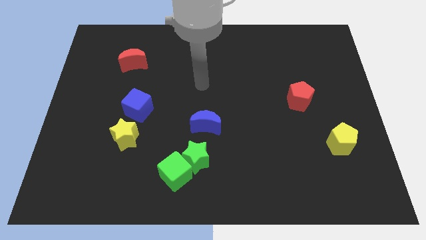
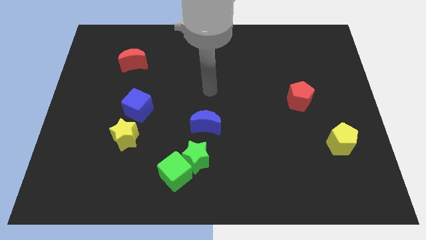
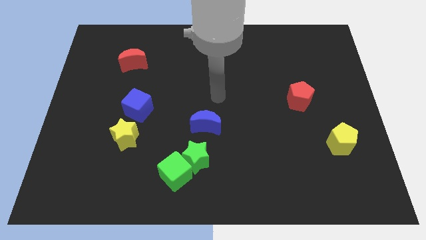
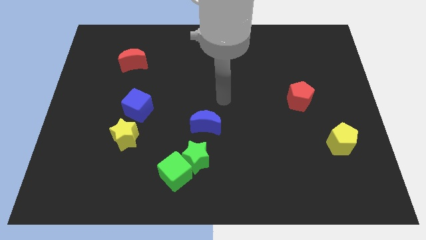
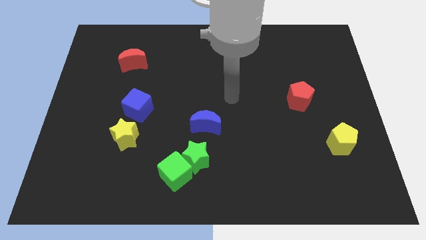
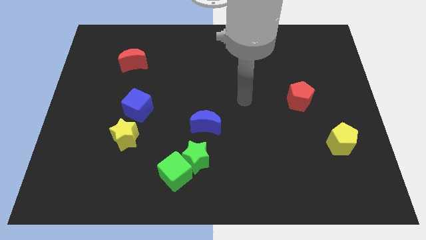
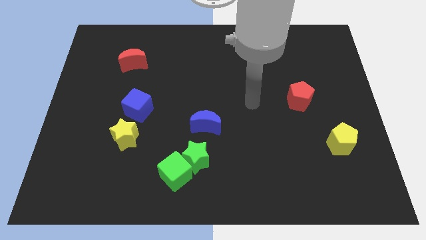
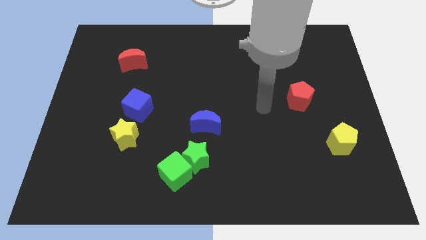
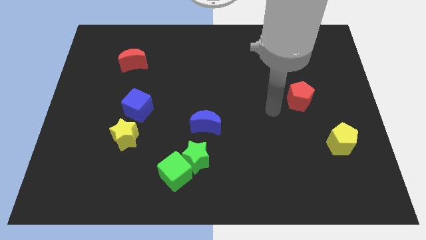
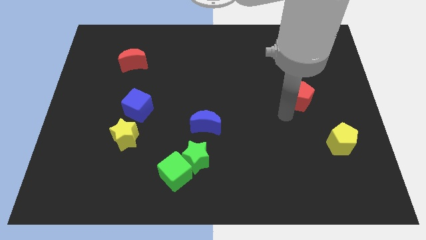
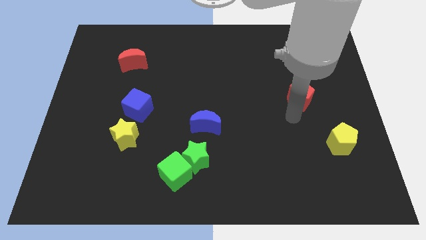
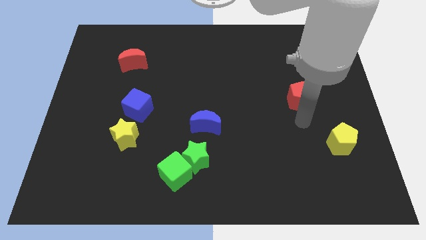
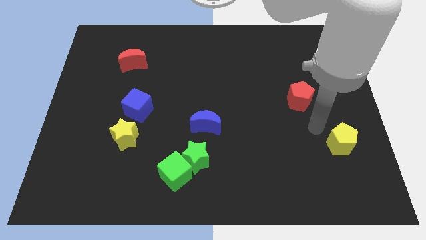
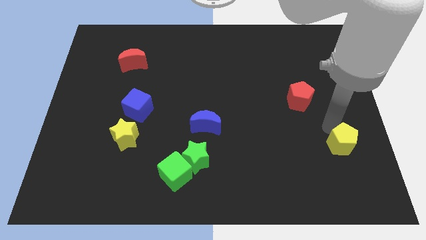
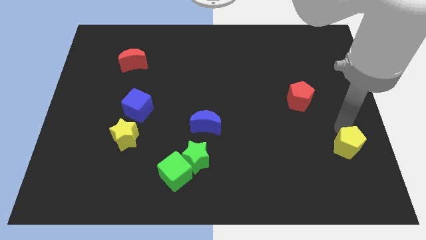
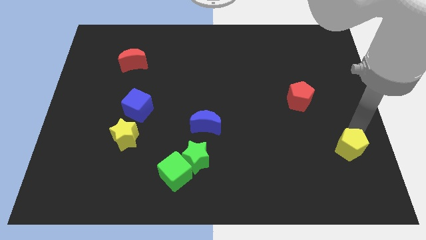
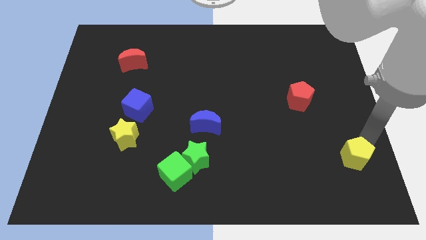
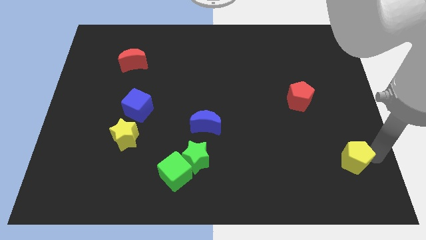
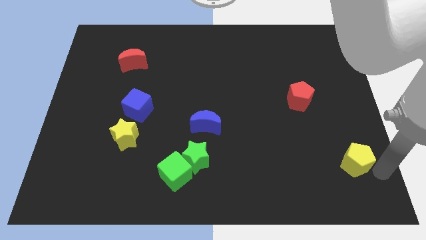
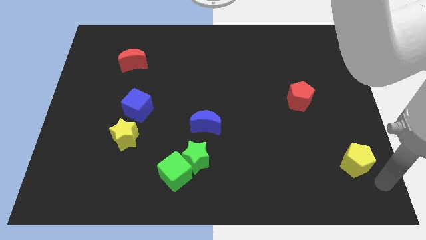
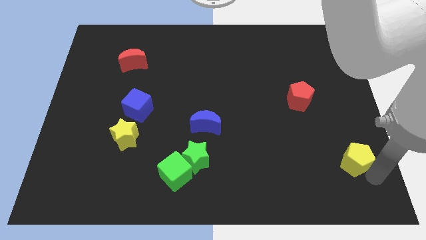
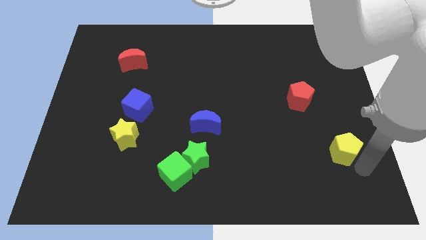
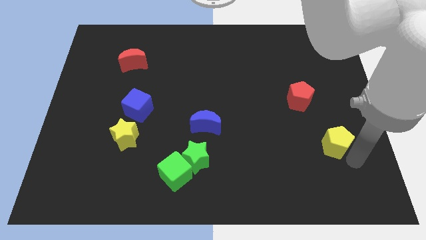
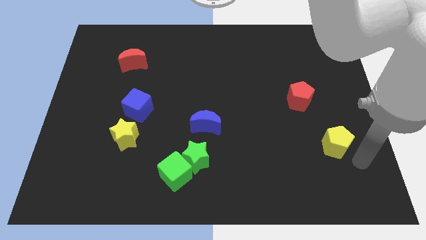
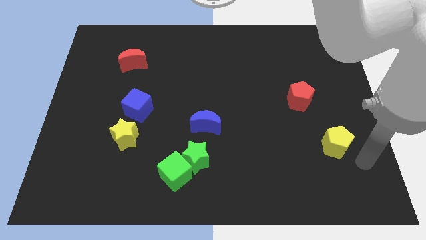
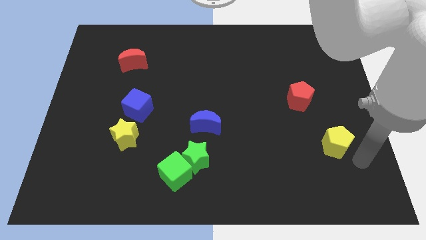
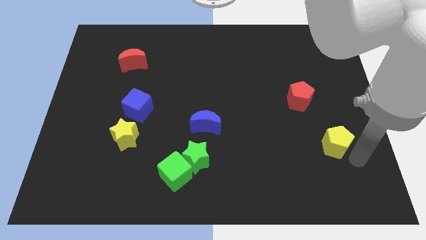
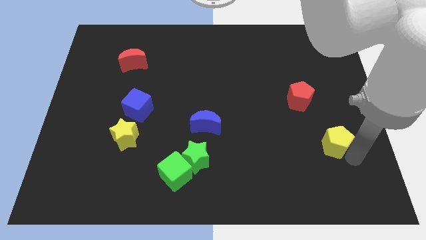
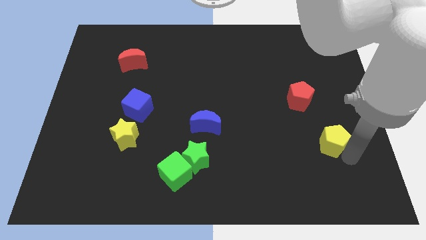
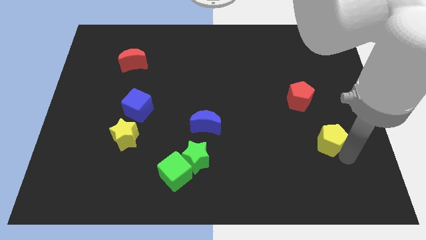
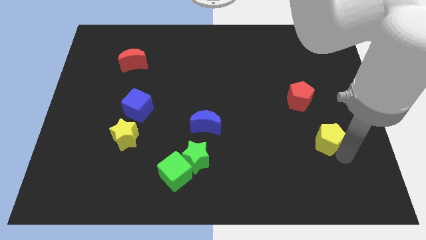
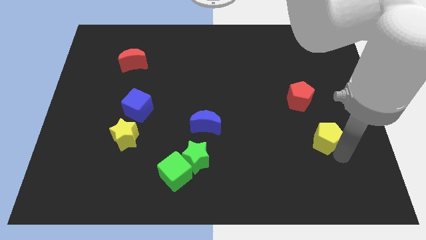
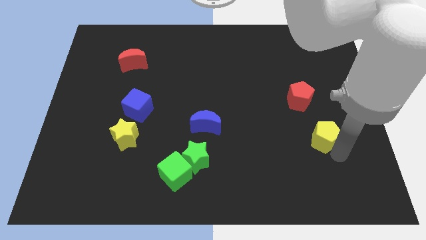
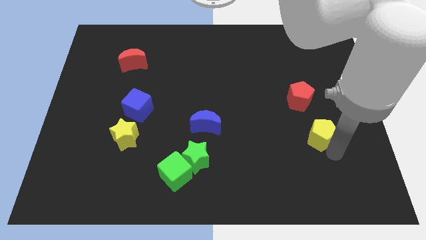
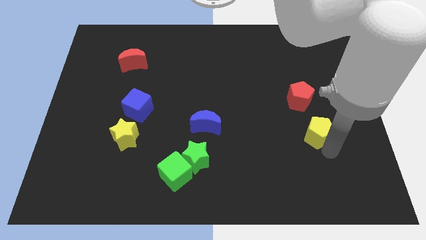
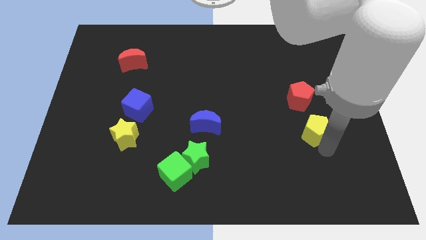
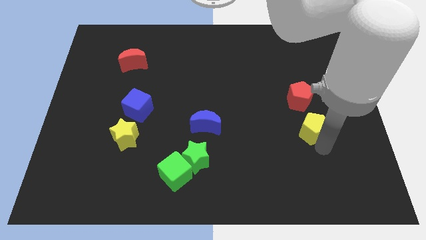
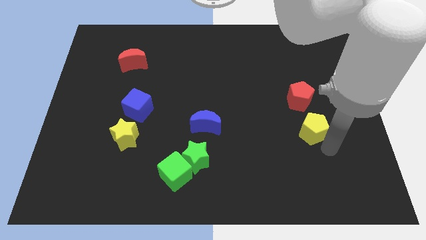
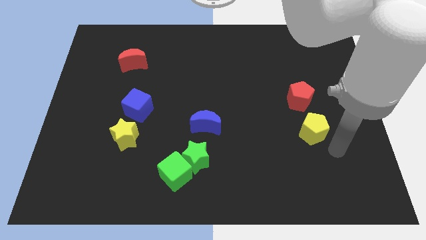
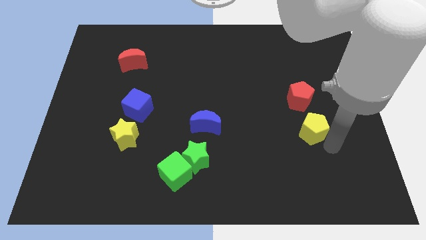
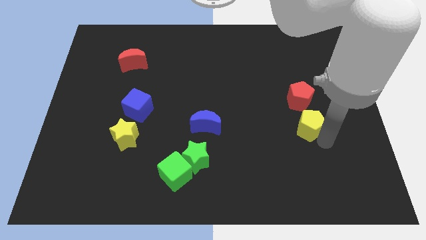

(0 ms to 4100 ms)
move the yellow pentagon upwards and then to the left a bit

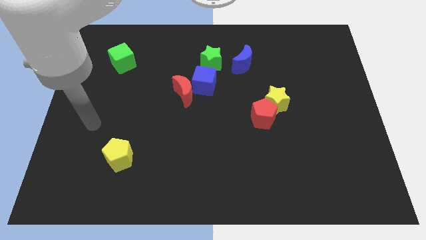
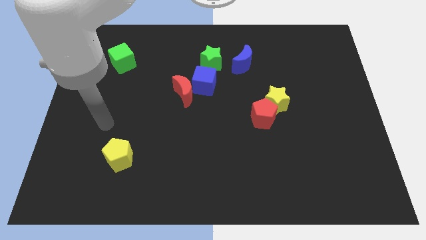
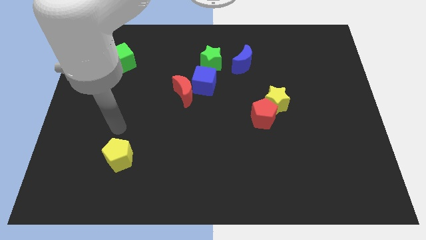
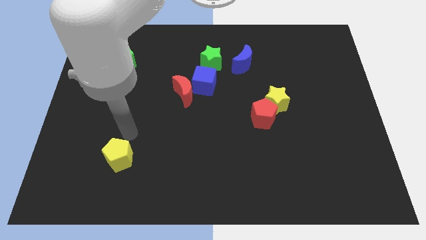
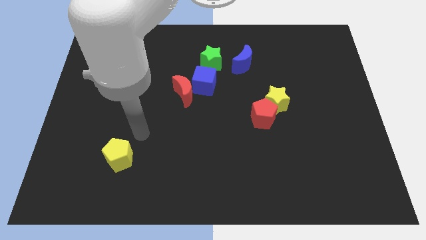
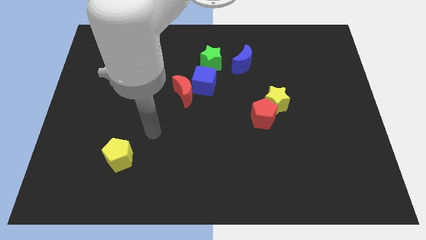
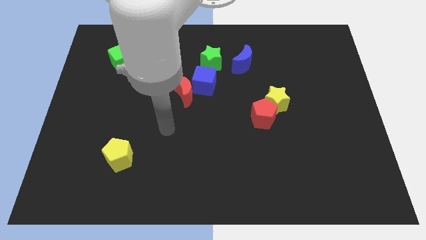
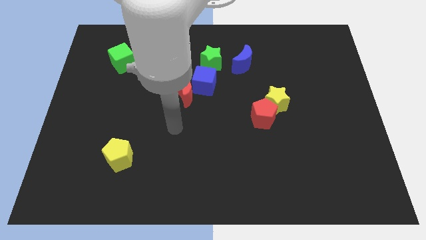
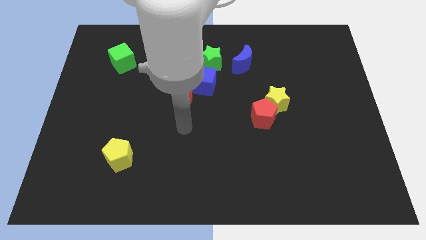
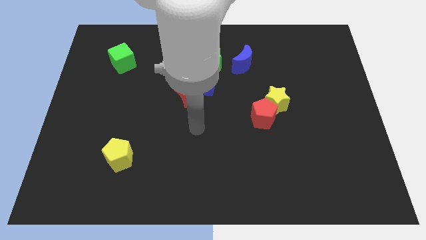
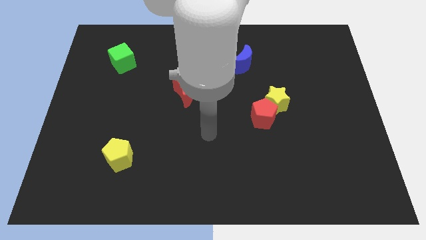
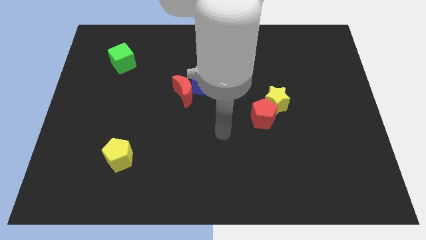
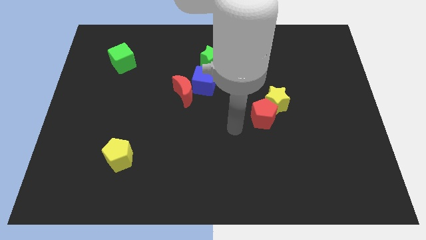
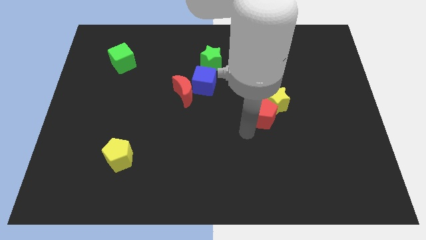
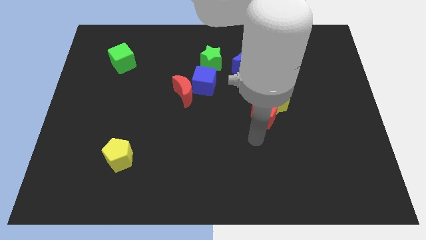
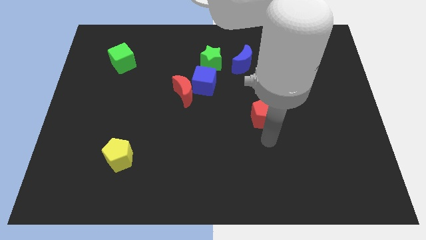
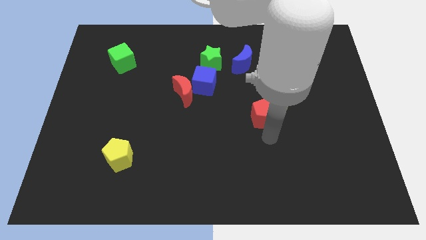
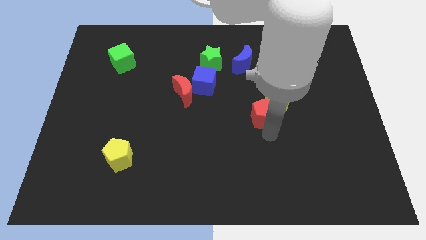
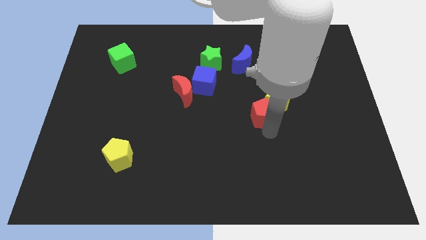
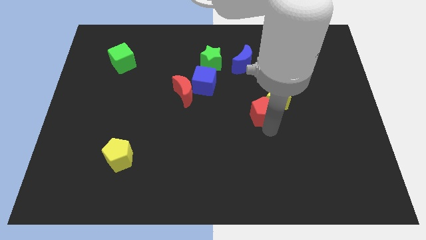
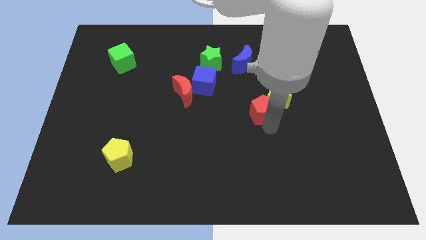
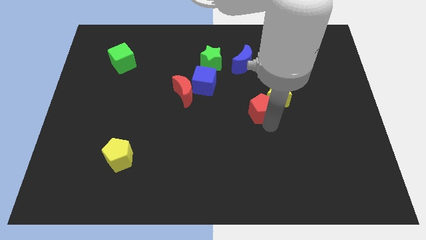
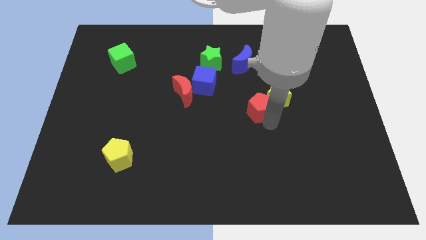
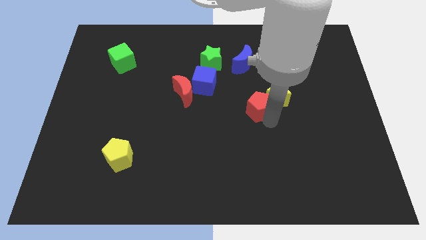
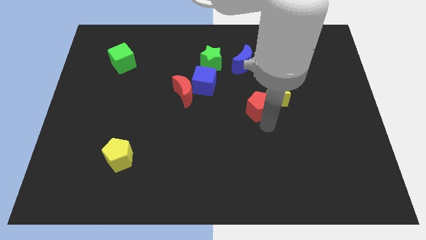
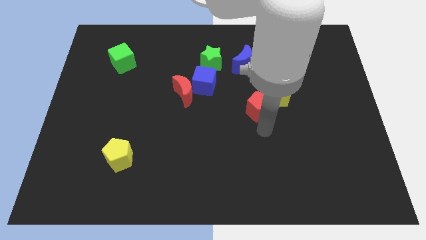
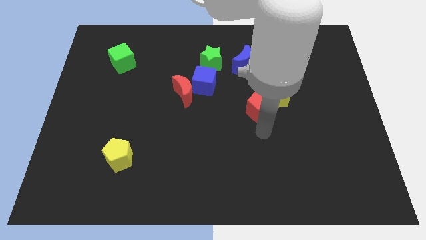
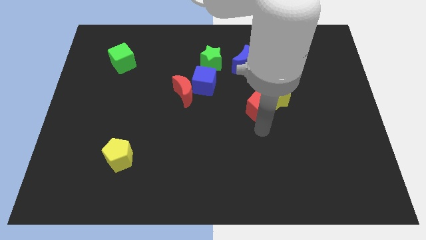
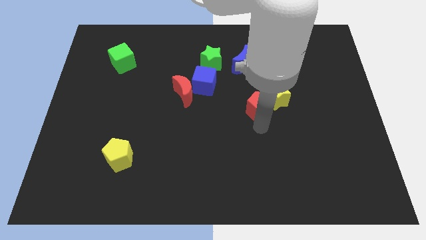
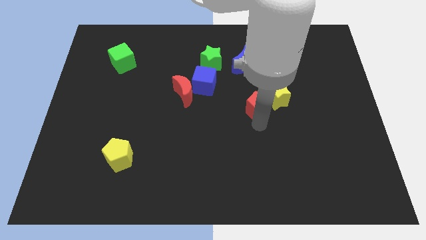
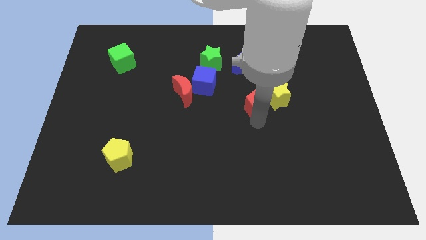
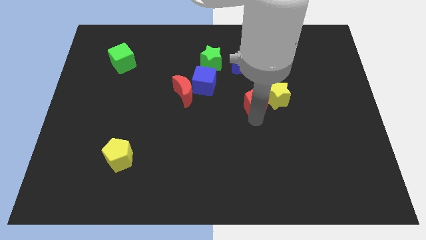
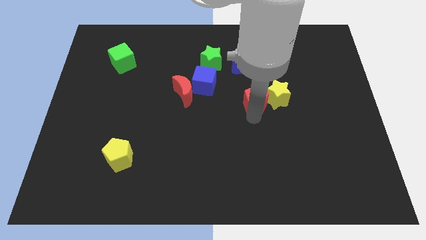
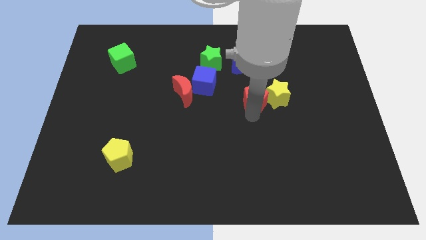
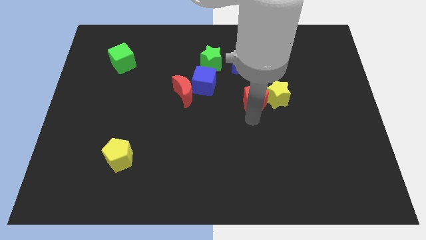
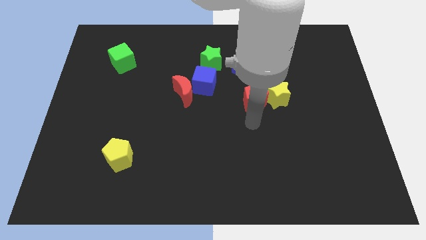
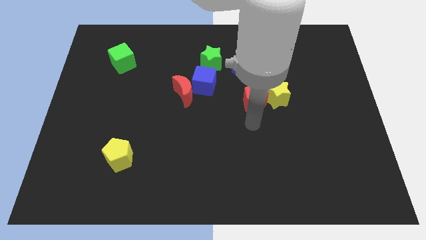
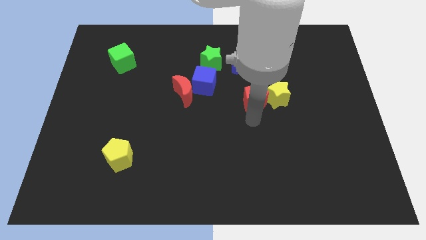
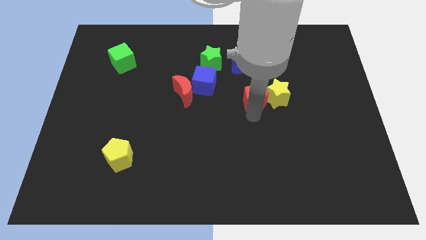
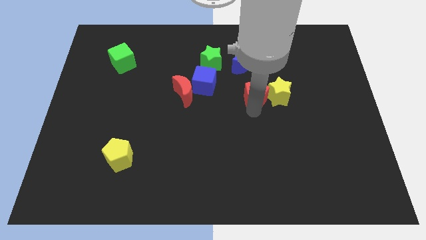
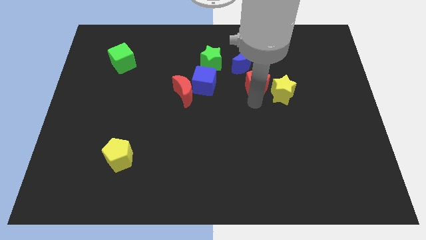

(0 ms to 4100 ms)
slide the red pentagon upwards a bit

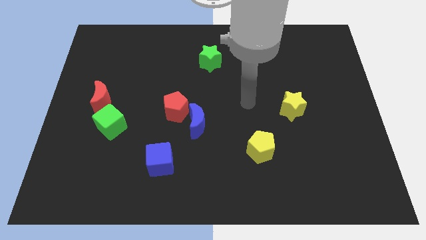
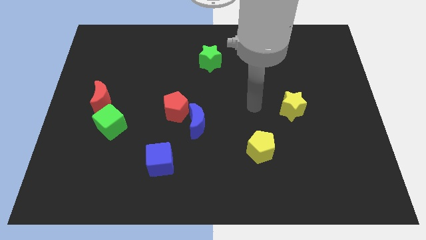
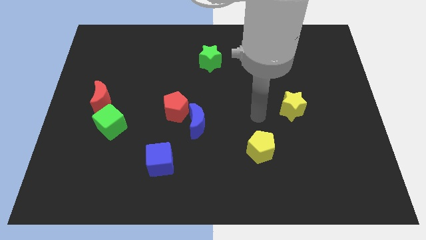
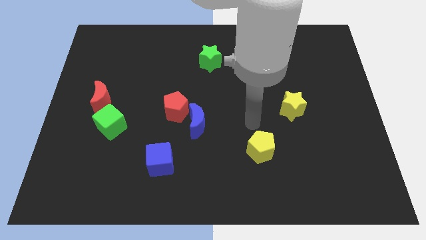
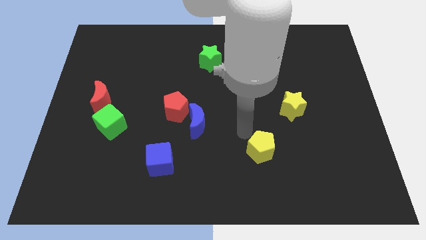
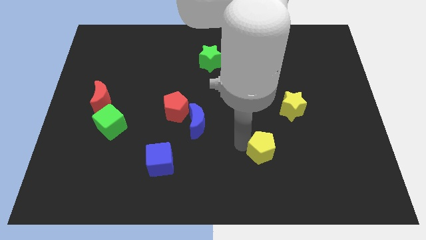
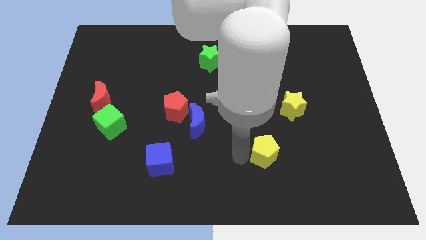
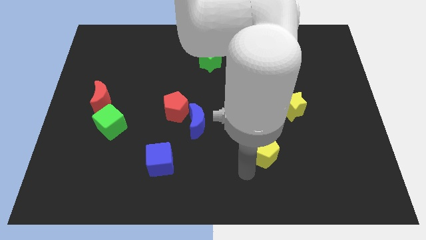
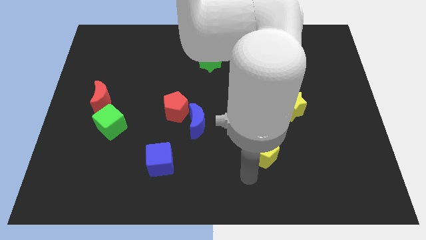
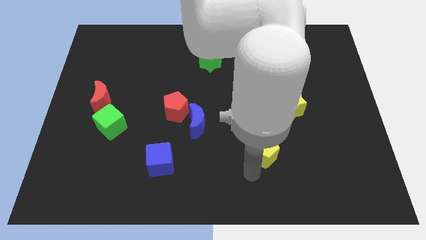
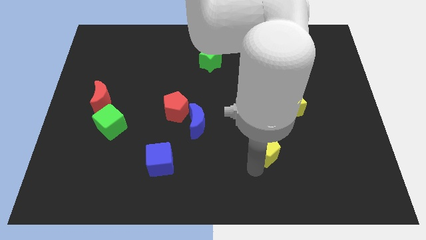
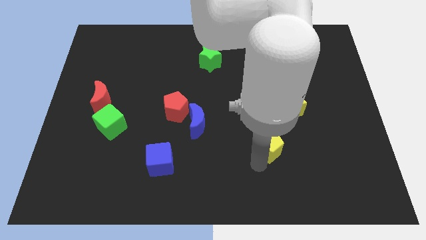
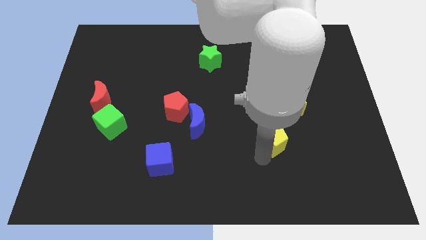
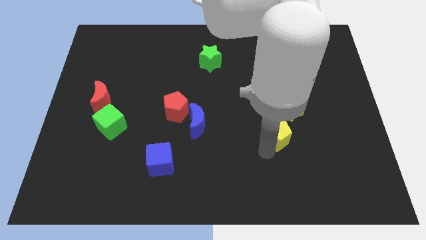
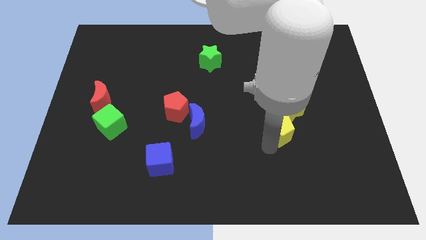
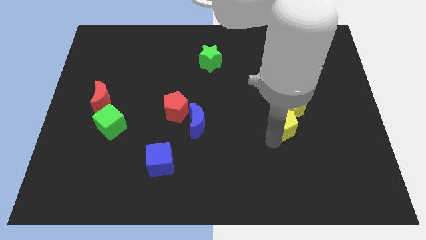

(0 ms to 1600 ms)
move the yellow pentagon upwards and then to the right a little
